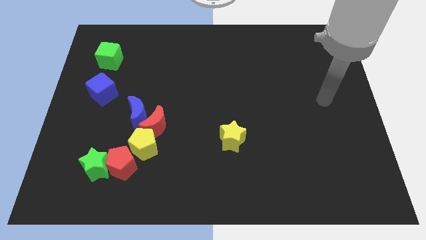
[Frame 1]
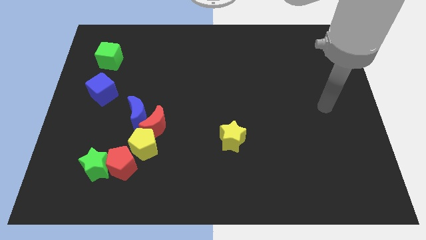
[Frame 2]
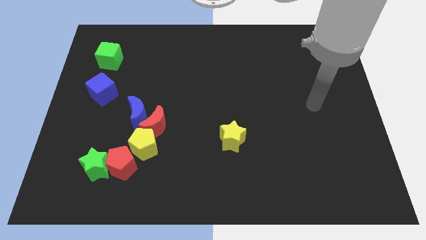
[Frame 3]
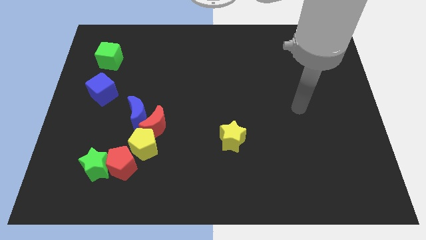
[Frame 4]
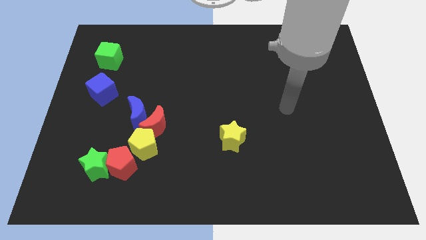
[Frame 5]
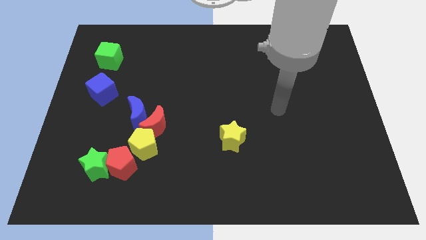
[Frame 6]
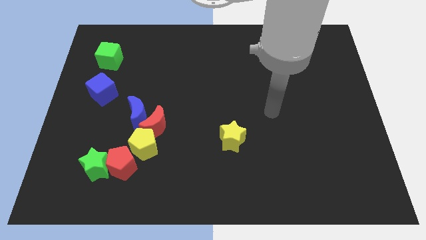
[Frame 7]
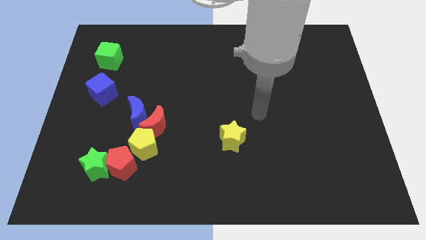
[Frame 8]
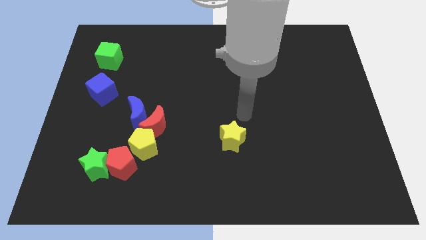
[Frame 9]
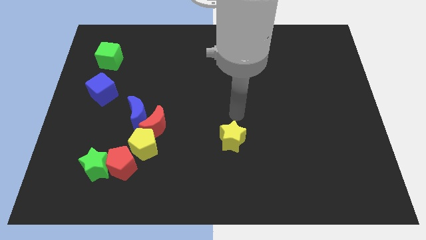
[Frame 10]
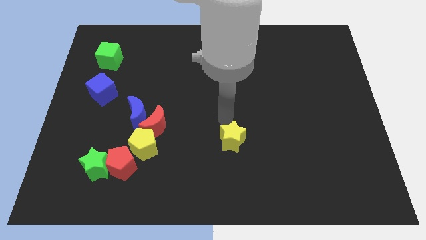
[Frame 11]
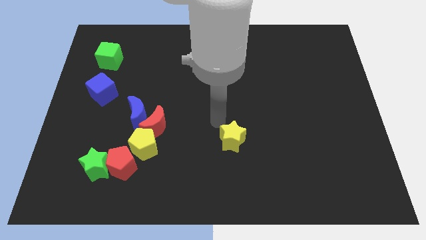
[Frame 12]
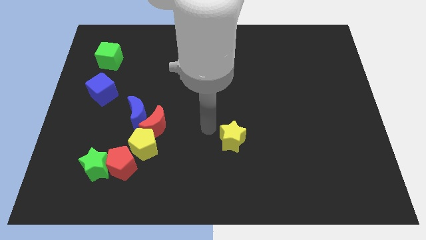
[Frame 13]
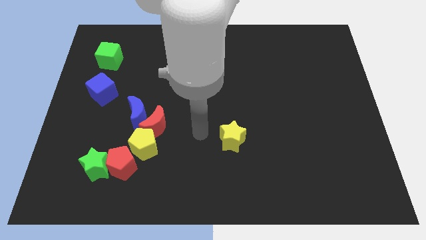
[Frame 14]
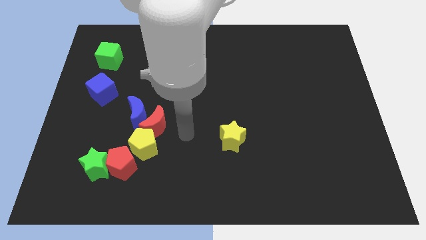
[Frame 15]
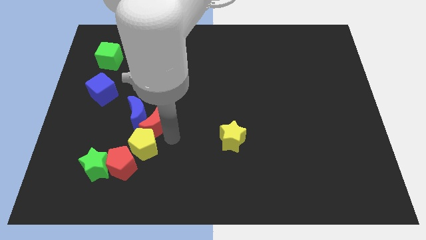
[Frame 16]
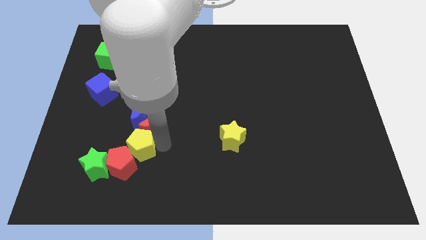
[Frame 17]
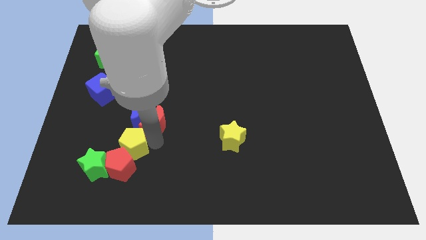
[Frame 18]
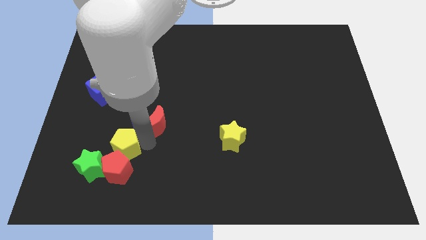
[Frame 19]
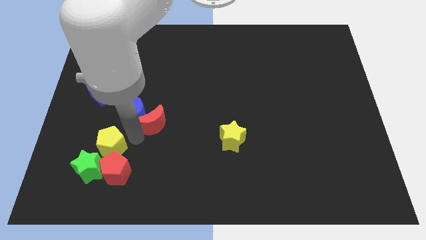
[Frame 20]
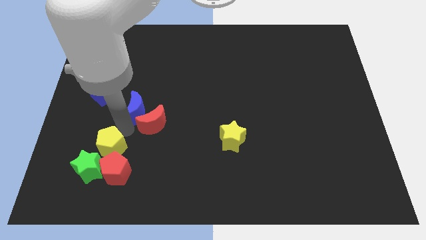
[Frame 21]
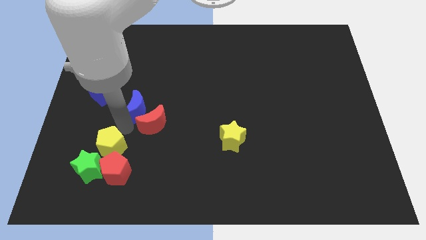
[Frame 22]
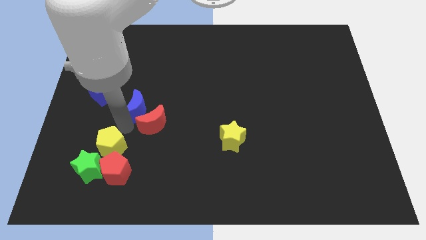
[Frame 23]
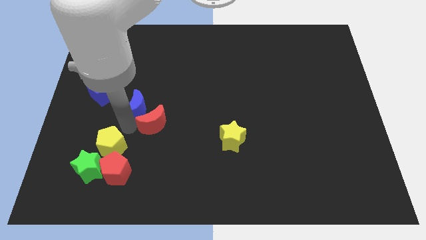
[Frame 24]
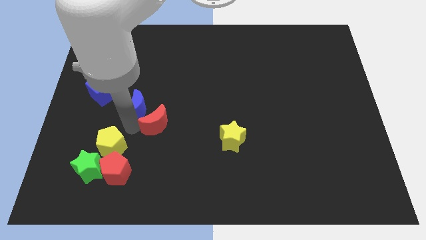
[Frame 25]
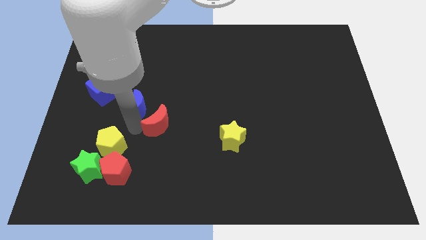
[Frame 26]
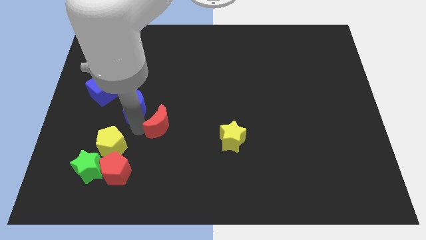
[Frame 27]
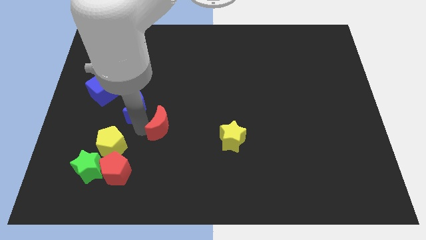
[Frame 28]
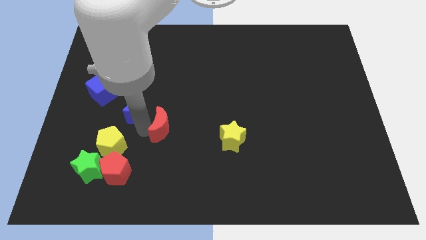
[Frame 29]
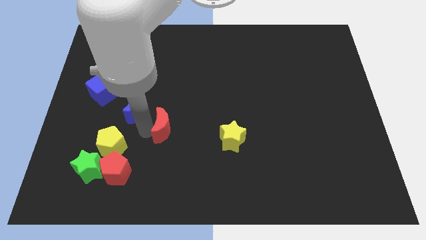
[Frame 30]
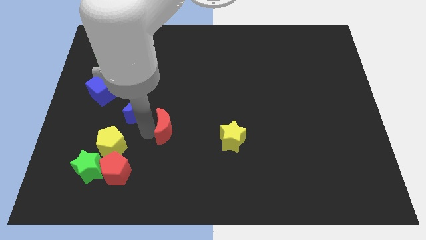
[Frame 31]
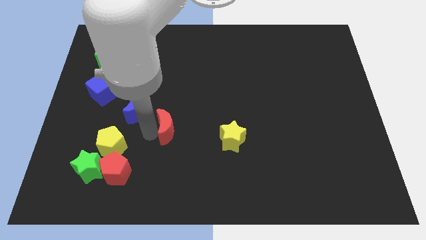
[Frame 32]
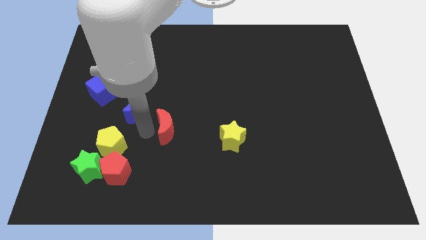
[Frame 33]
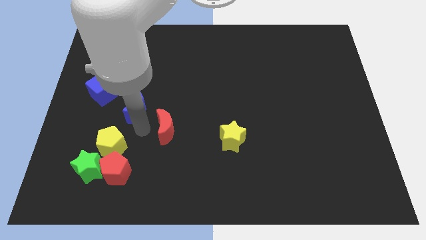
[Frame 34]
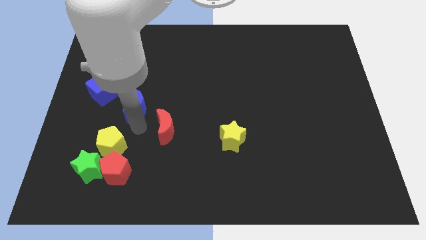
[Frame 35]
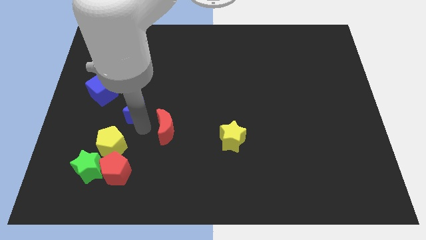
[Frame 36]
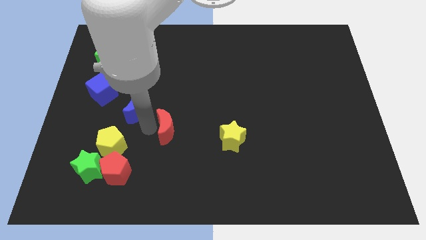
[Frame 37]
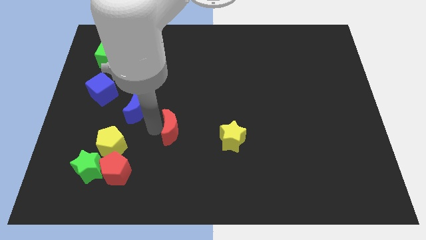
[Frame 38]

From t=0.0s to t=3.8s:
separate the red moon from the blue moon and yellow pentagon

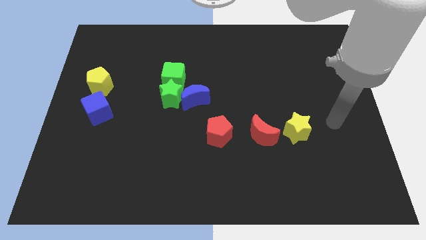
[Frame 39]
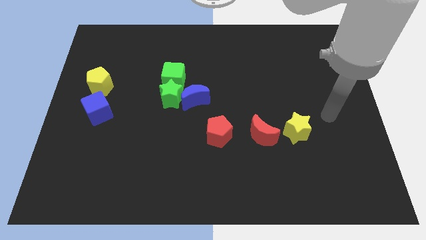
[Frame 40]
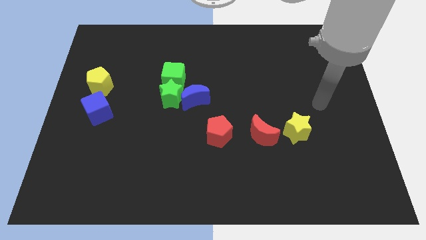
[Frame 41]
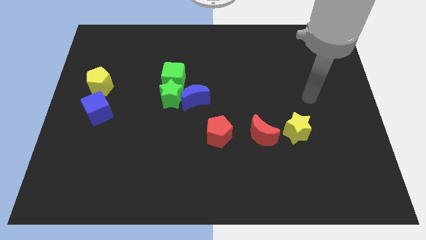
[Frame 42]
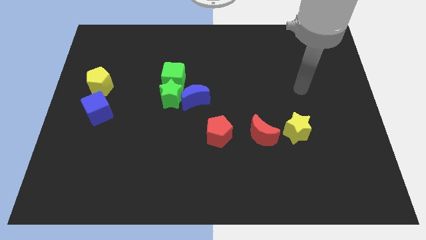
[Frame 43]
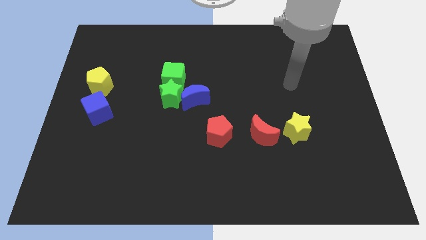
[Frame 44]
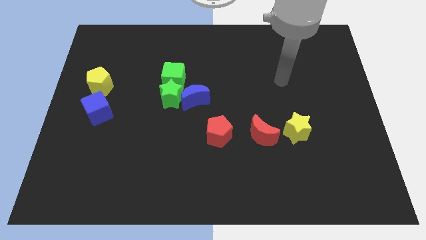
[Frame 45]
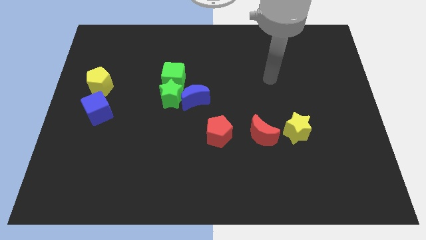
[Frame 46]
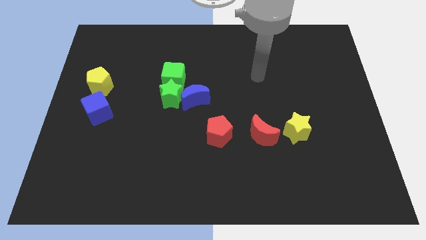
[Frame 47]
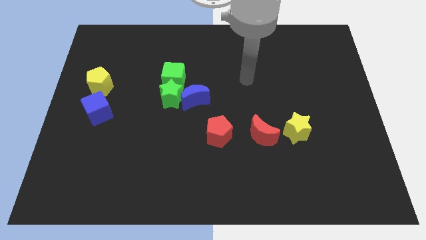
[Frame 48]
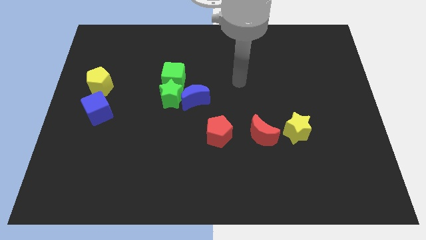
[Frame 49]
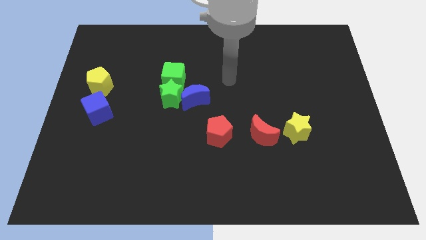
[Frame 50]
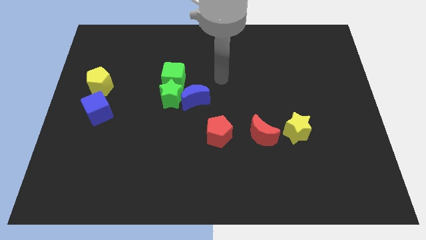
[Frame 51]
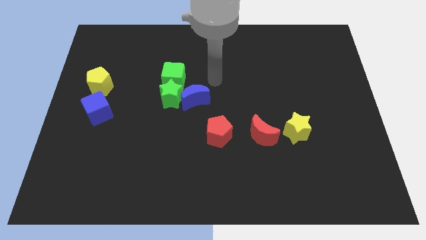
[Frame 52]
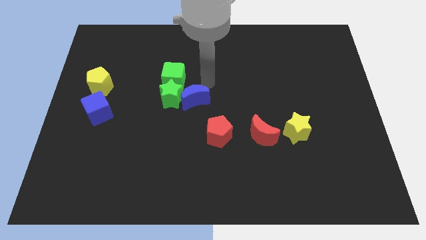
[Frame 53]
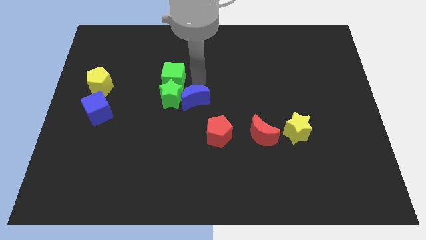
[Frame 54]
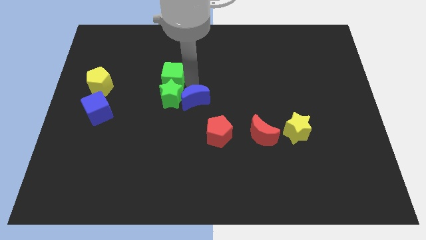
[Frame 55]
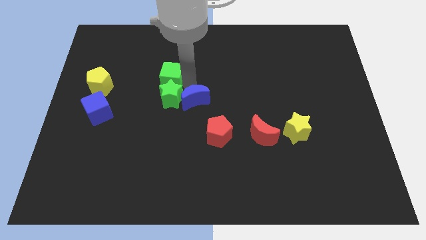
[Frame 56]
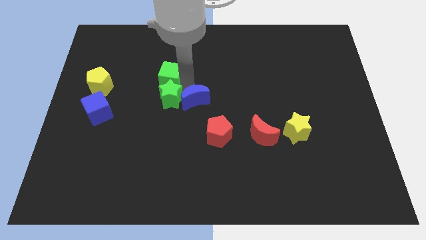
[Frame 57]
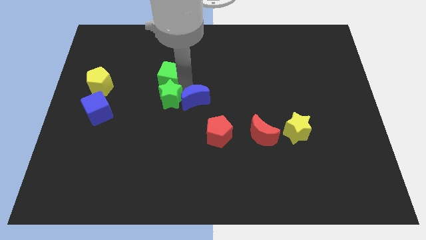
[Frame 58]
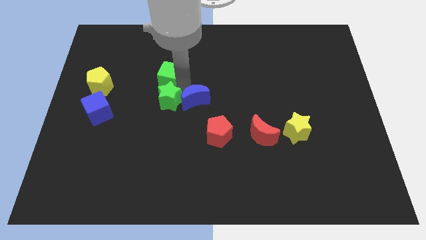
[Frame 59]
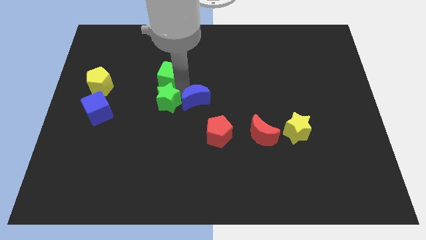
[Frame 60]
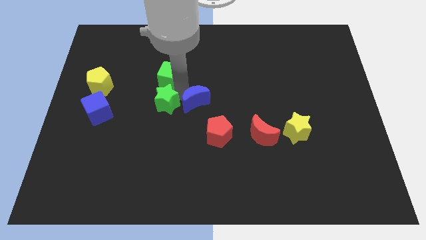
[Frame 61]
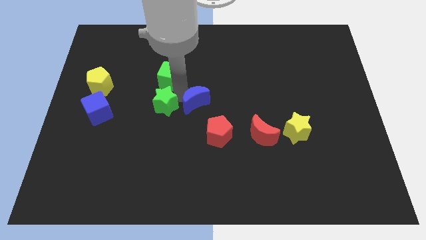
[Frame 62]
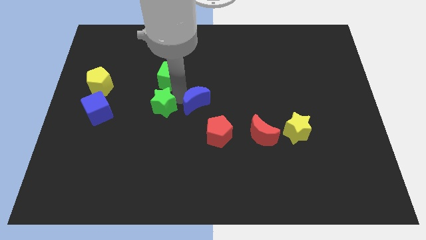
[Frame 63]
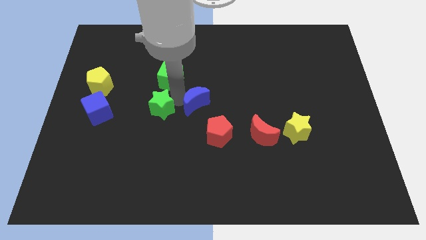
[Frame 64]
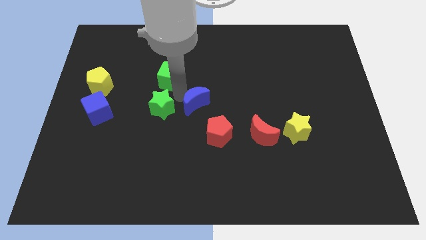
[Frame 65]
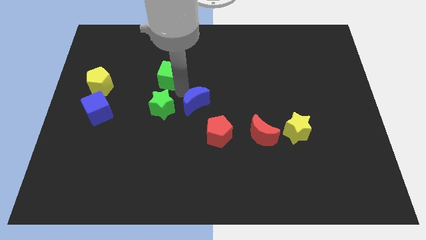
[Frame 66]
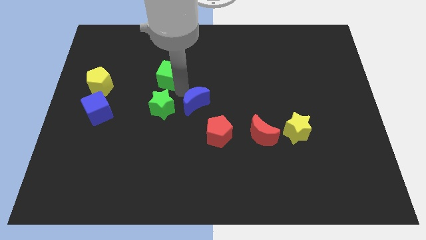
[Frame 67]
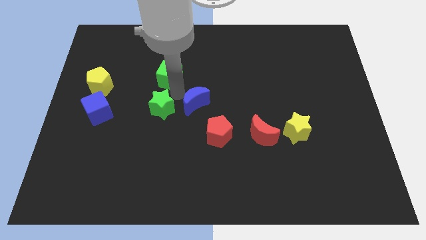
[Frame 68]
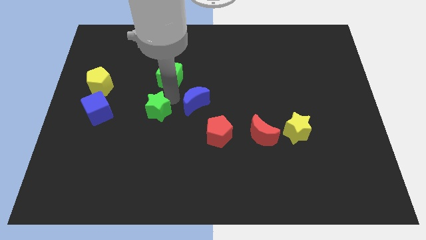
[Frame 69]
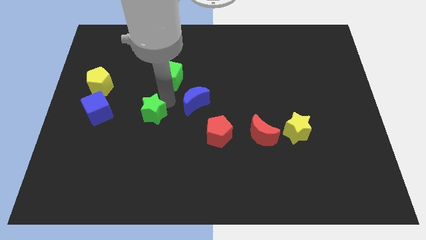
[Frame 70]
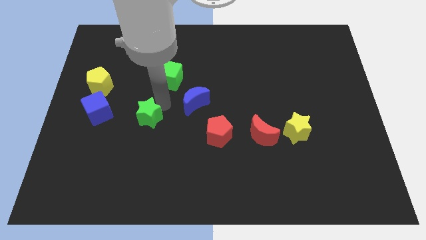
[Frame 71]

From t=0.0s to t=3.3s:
move the green star away from the green cube and blue moon

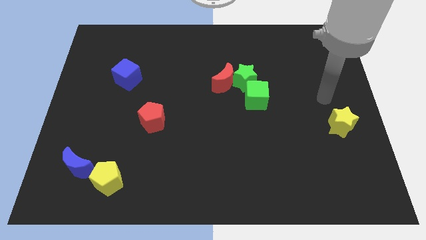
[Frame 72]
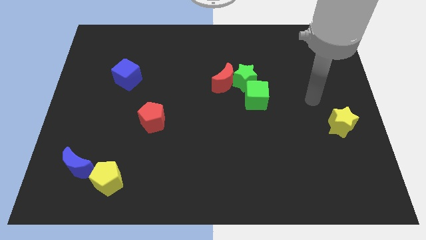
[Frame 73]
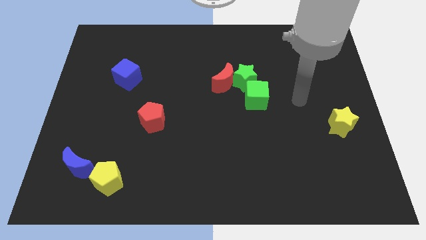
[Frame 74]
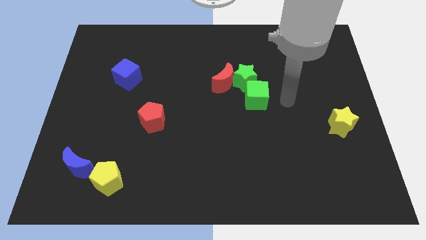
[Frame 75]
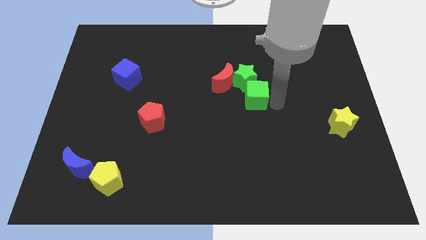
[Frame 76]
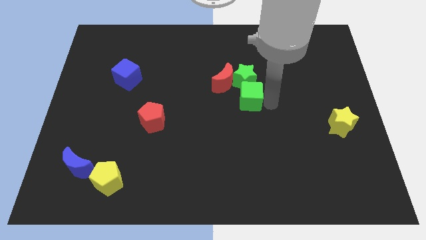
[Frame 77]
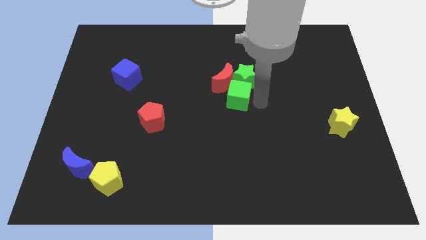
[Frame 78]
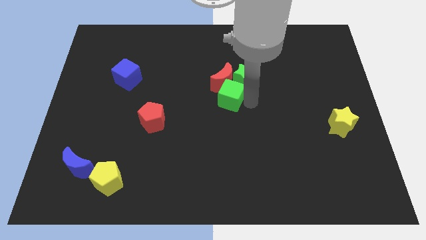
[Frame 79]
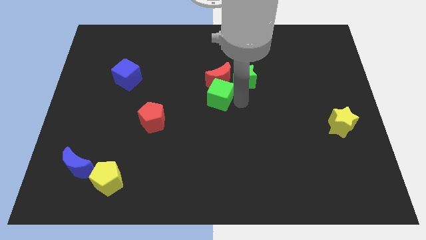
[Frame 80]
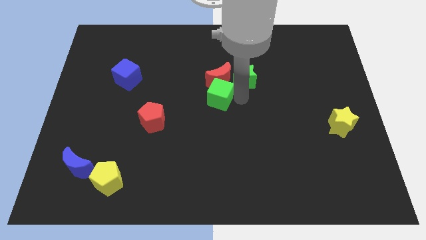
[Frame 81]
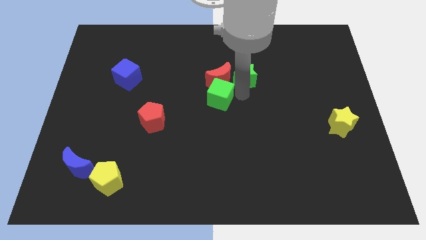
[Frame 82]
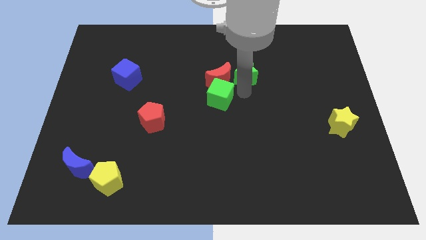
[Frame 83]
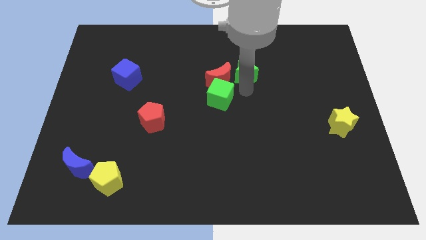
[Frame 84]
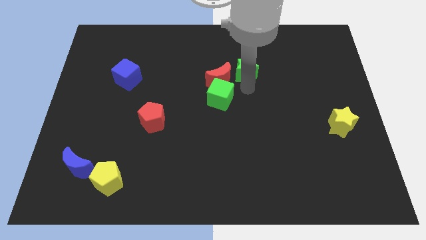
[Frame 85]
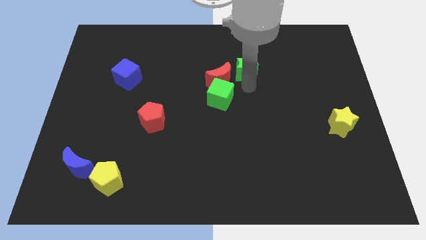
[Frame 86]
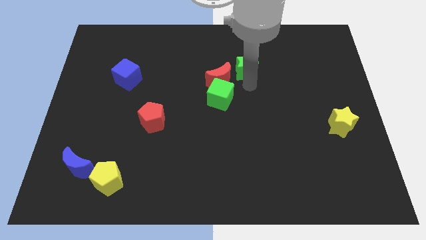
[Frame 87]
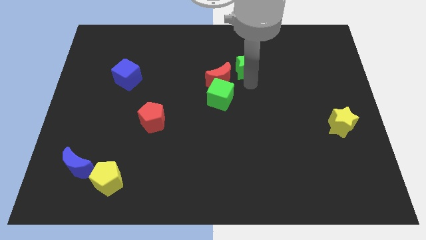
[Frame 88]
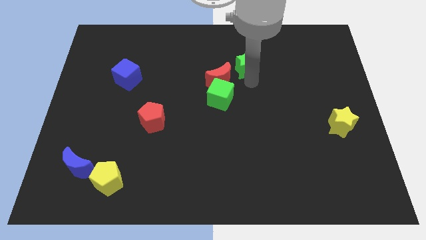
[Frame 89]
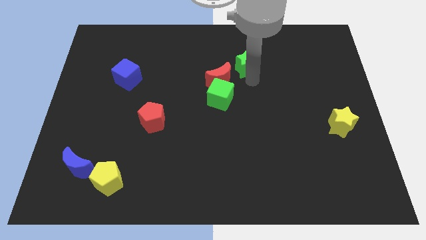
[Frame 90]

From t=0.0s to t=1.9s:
separate the green star from the red moon and green cube

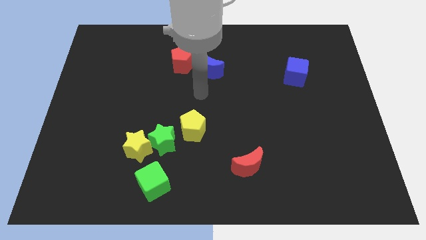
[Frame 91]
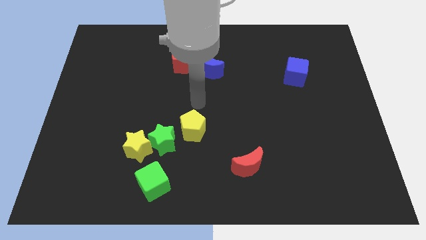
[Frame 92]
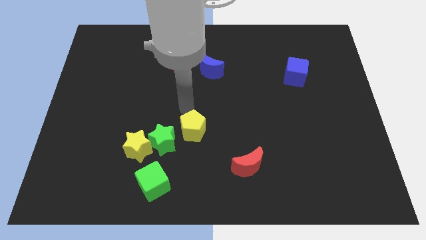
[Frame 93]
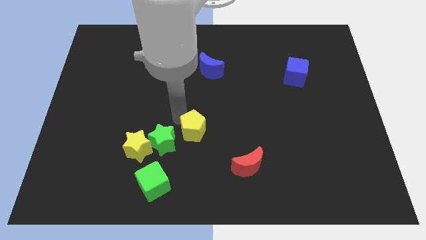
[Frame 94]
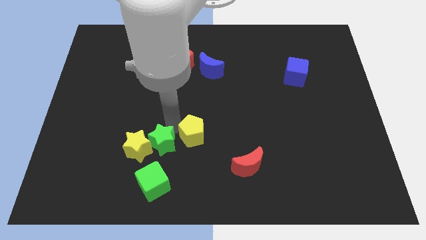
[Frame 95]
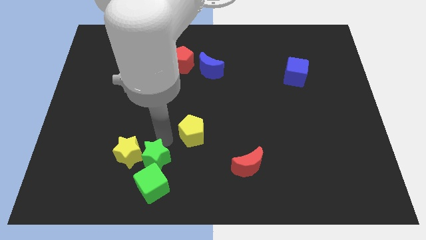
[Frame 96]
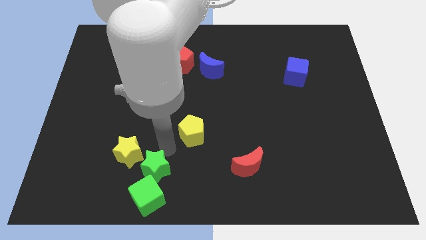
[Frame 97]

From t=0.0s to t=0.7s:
separate the yellow pentagon from the green star
